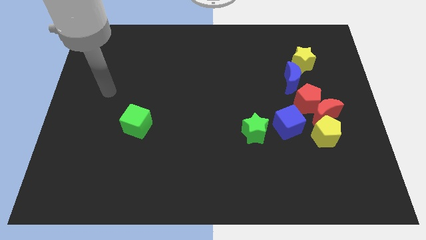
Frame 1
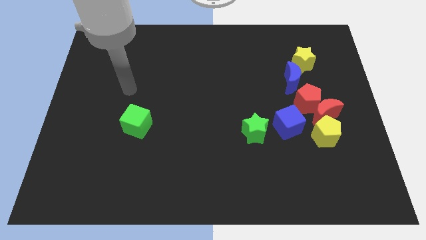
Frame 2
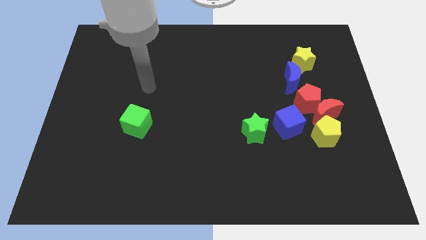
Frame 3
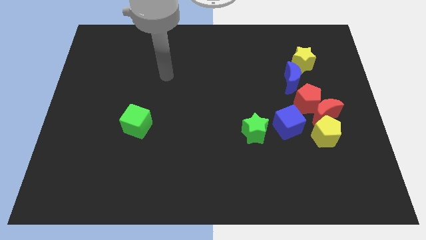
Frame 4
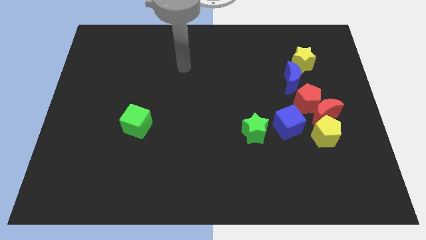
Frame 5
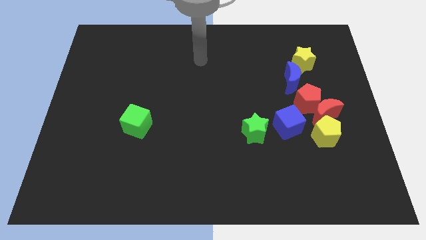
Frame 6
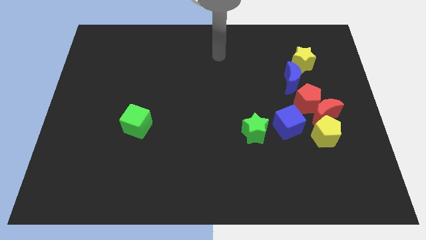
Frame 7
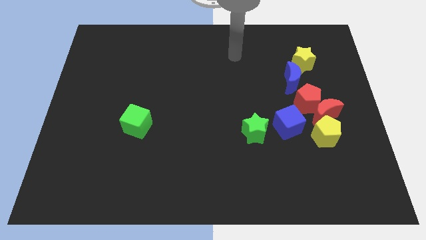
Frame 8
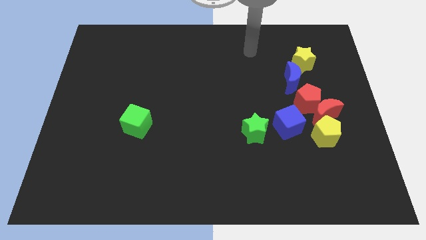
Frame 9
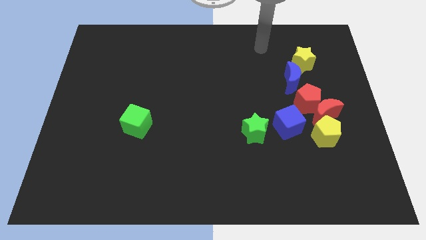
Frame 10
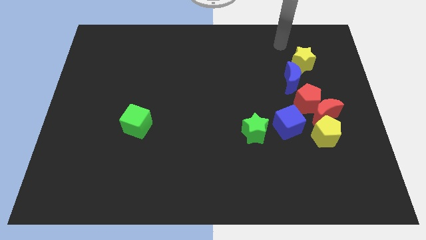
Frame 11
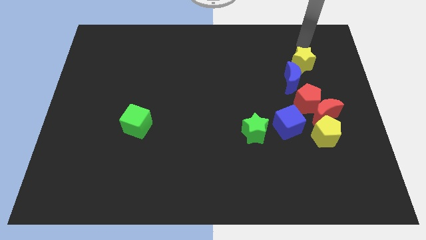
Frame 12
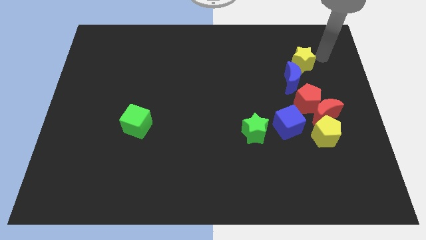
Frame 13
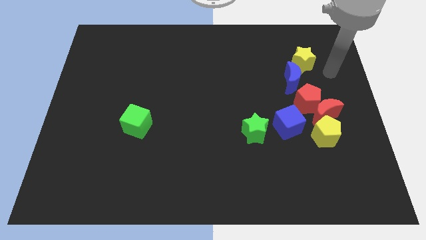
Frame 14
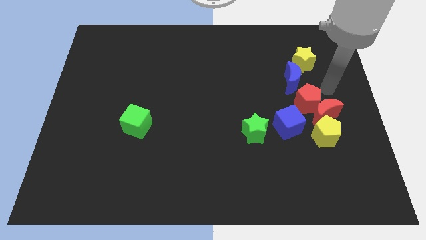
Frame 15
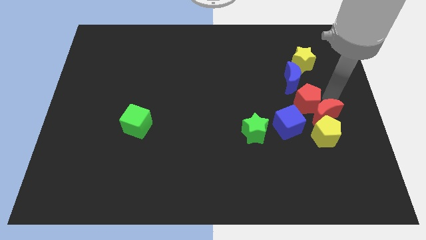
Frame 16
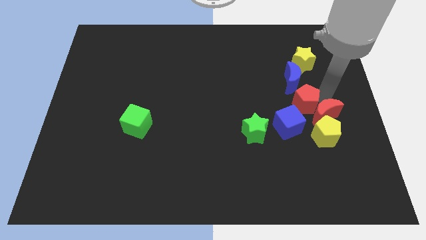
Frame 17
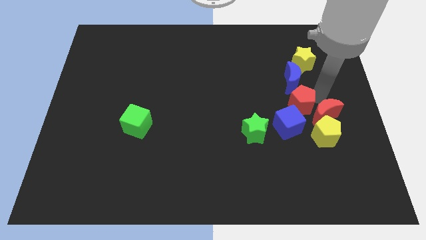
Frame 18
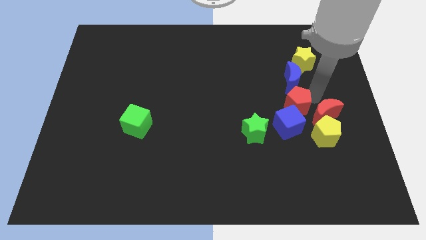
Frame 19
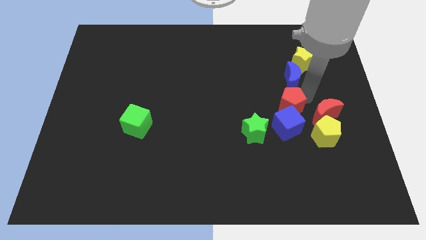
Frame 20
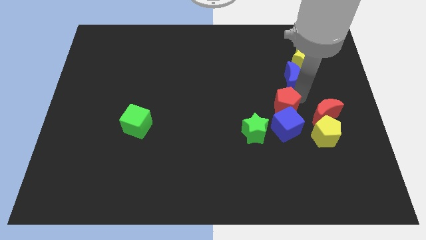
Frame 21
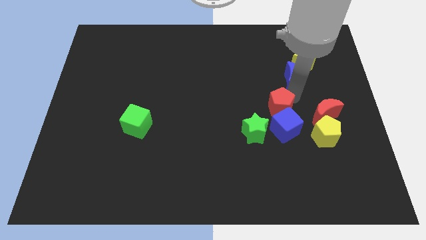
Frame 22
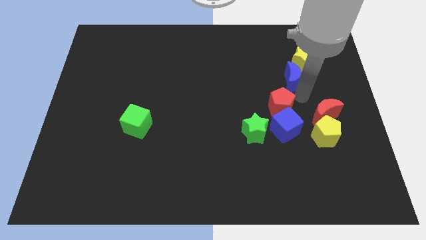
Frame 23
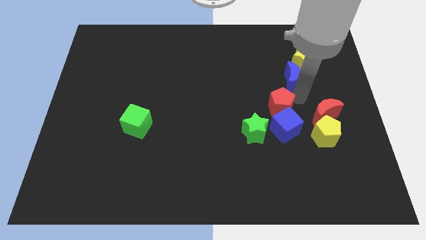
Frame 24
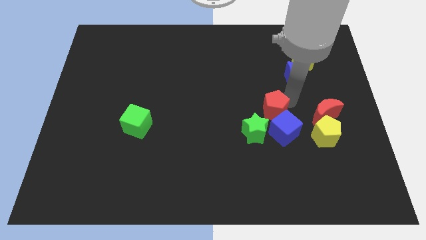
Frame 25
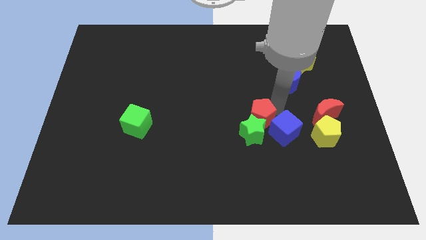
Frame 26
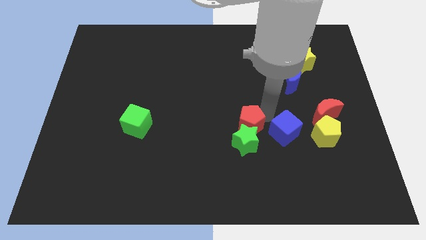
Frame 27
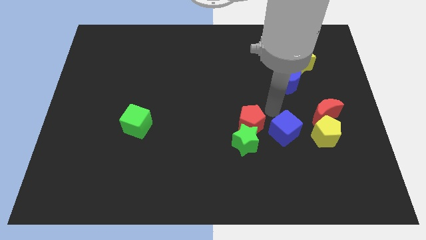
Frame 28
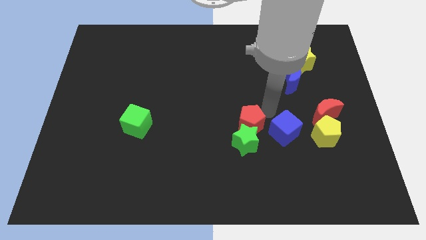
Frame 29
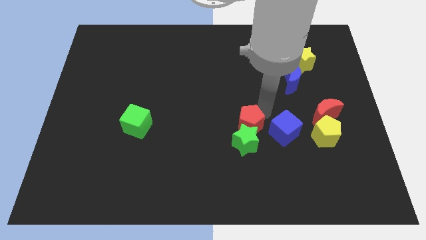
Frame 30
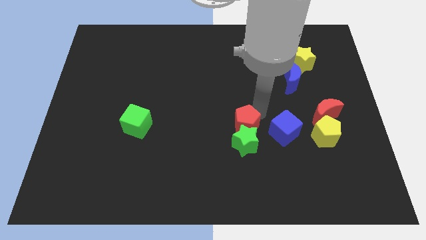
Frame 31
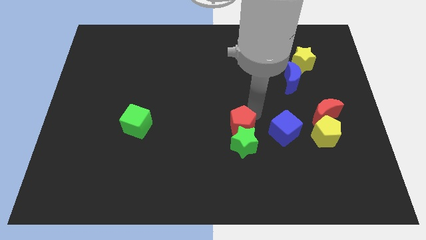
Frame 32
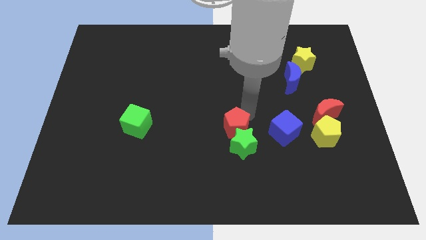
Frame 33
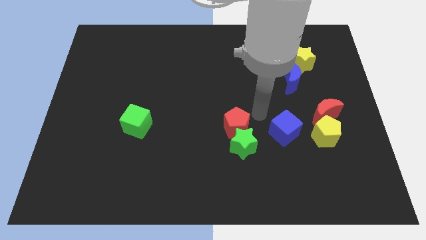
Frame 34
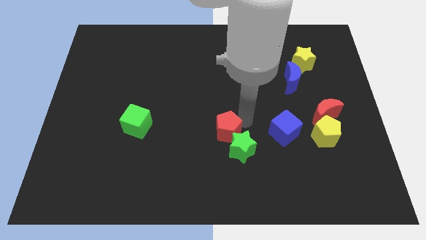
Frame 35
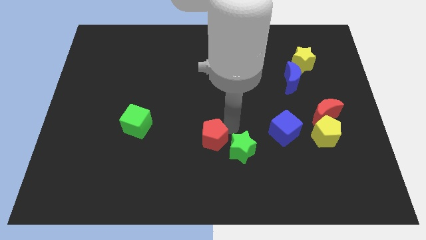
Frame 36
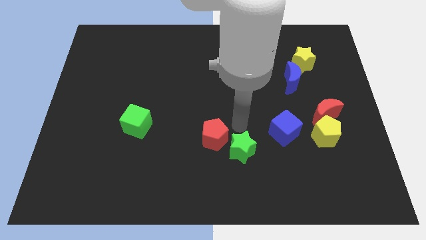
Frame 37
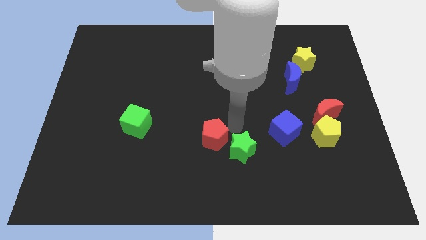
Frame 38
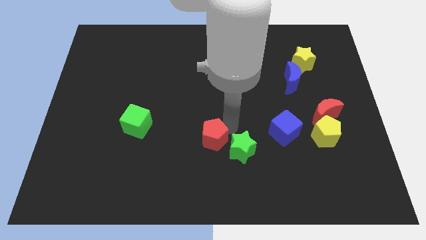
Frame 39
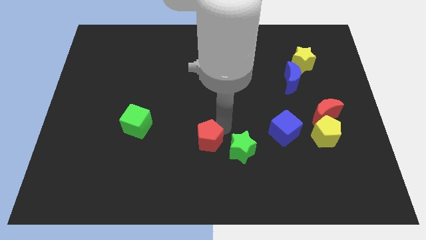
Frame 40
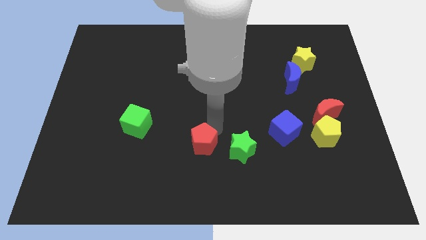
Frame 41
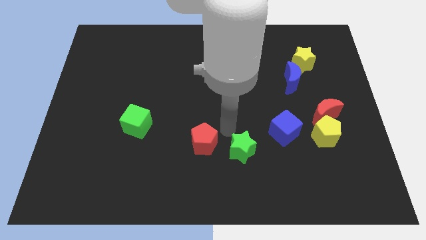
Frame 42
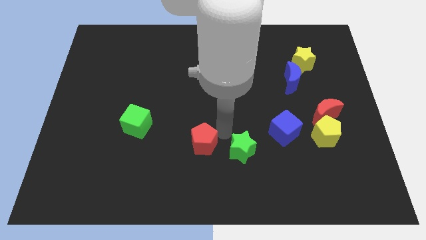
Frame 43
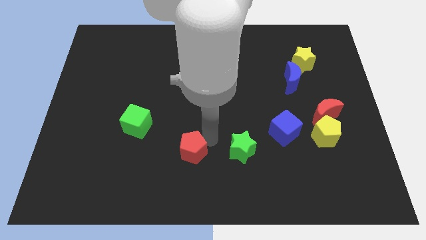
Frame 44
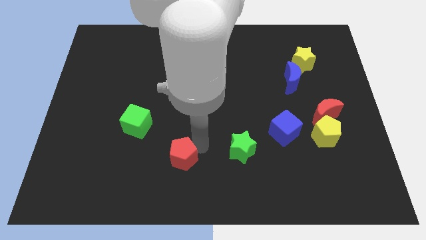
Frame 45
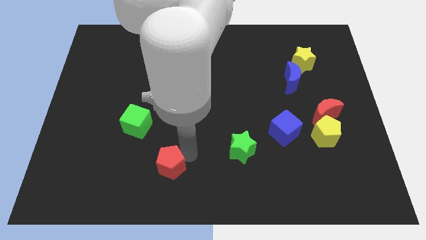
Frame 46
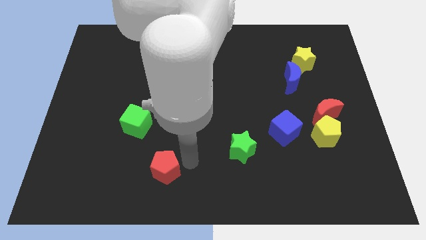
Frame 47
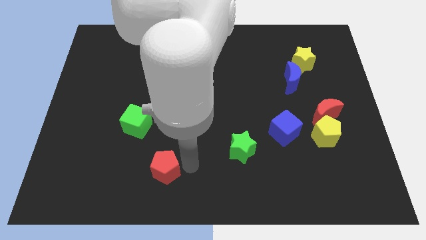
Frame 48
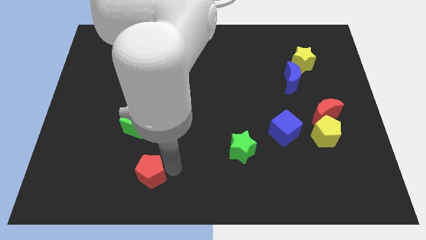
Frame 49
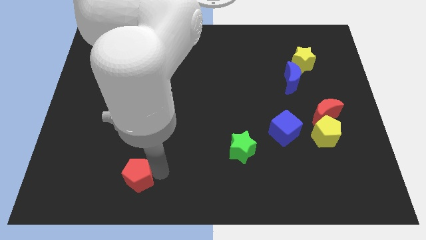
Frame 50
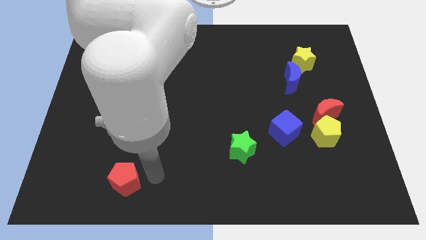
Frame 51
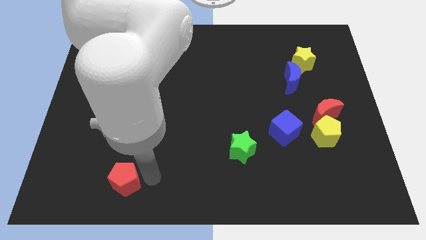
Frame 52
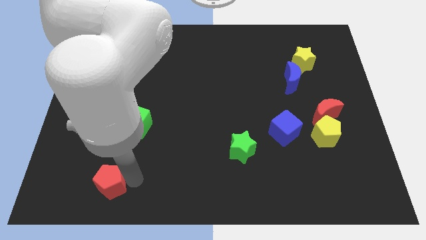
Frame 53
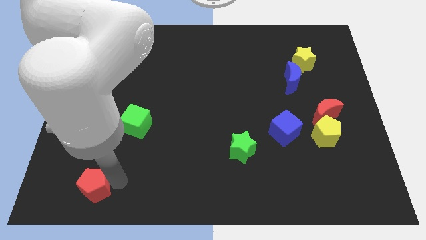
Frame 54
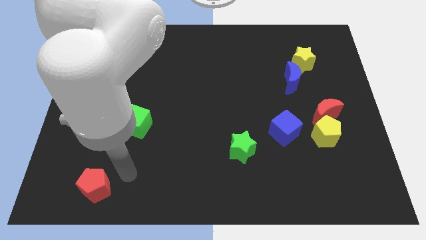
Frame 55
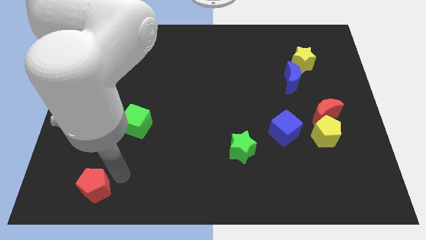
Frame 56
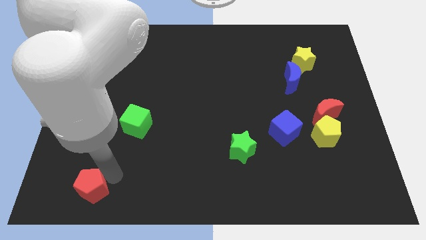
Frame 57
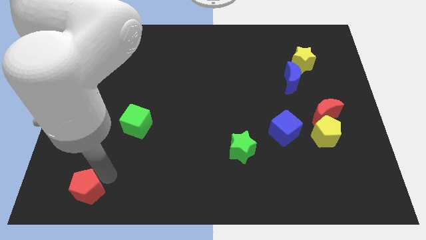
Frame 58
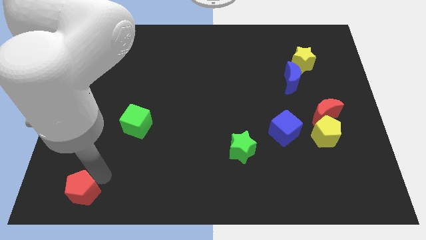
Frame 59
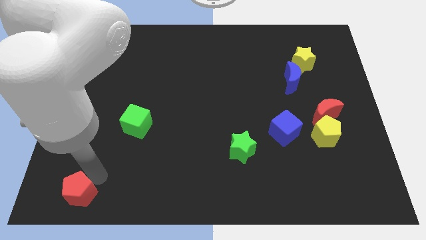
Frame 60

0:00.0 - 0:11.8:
move the red pentagon to the bottom left corner
